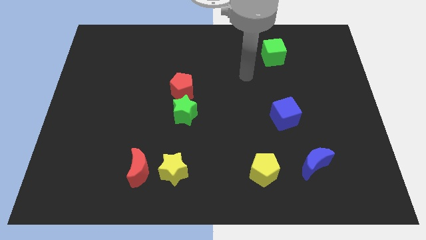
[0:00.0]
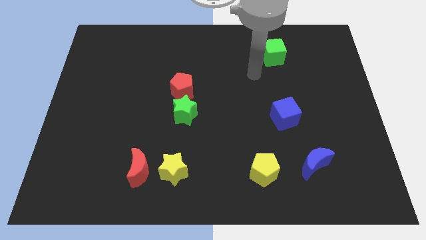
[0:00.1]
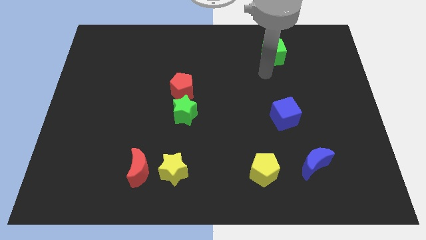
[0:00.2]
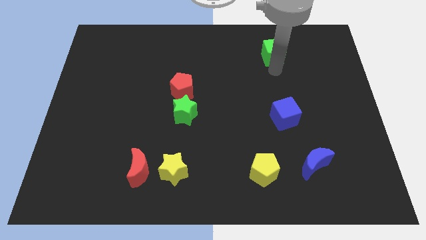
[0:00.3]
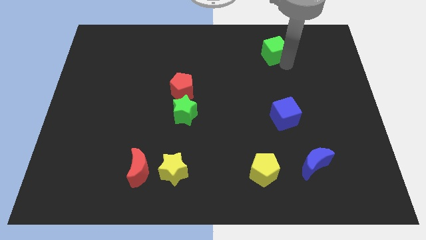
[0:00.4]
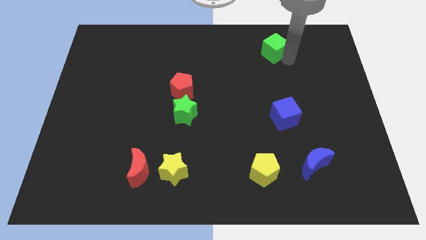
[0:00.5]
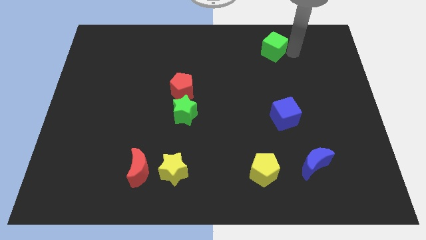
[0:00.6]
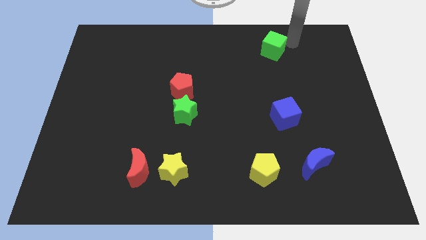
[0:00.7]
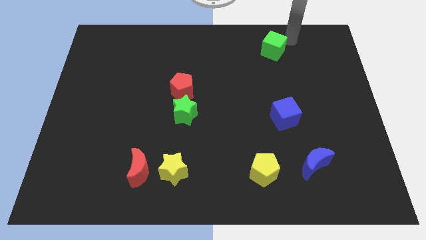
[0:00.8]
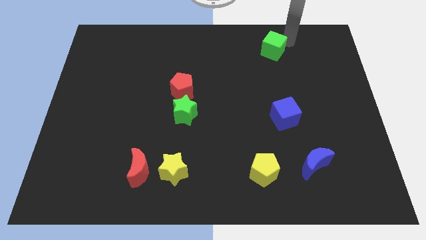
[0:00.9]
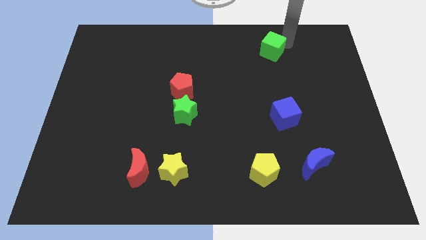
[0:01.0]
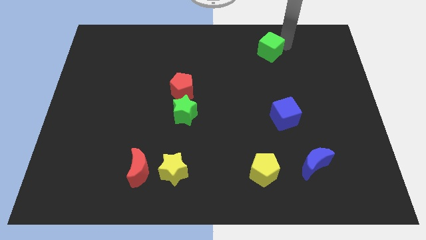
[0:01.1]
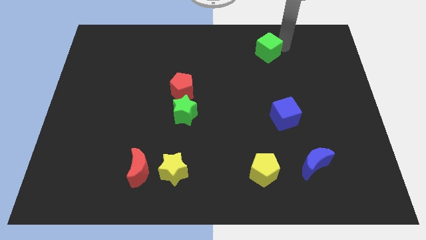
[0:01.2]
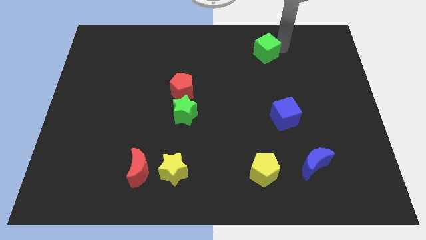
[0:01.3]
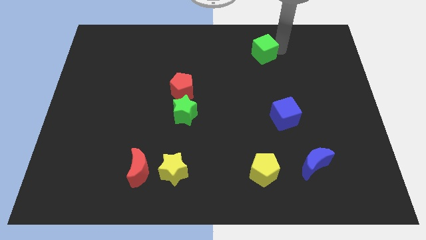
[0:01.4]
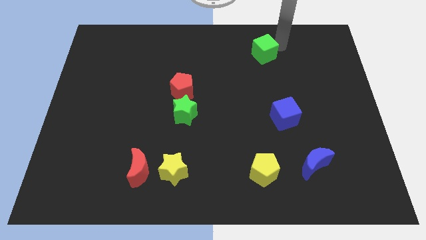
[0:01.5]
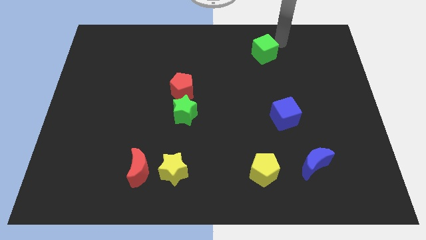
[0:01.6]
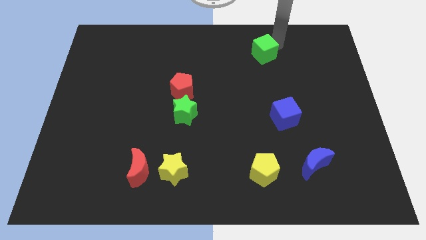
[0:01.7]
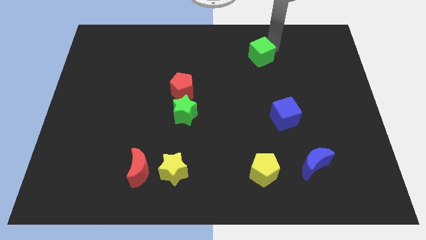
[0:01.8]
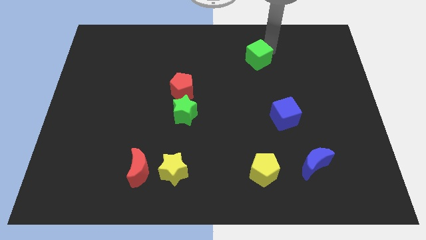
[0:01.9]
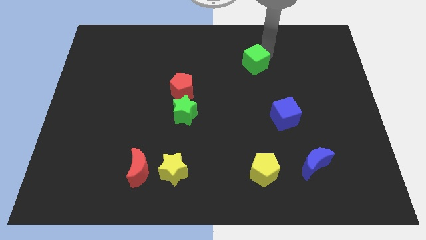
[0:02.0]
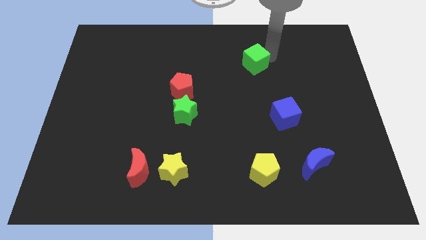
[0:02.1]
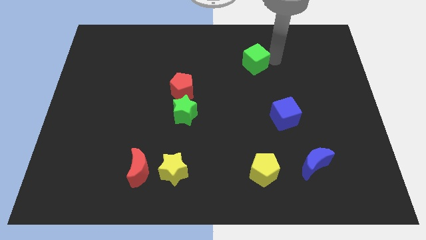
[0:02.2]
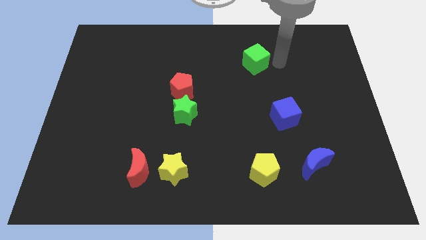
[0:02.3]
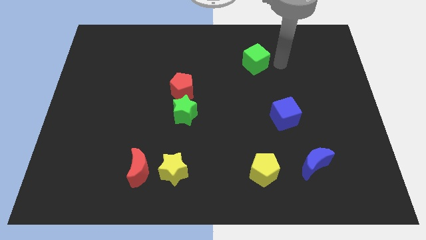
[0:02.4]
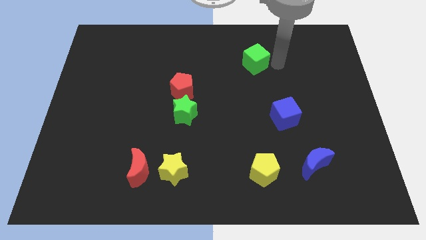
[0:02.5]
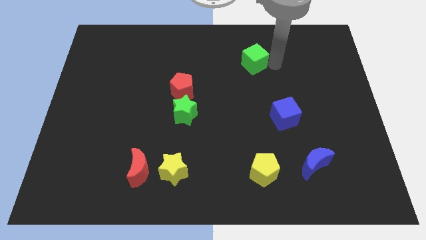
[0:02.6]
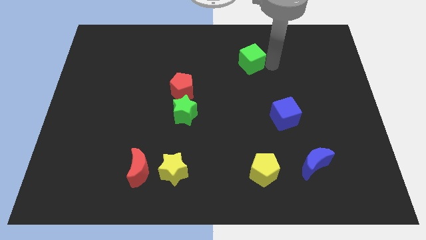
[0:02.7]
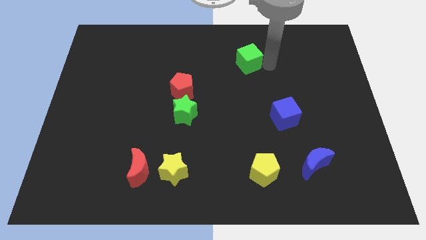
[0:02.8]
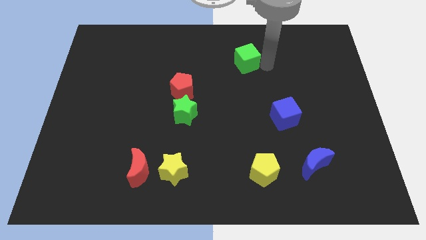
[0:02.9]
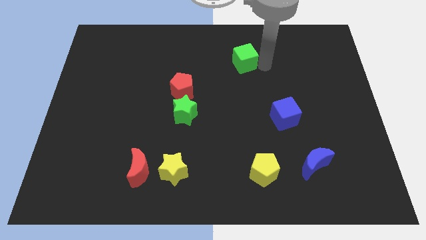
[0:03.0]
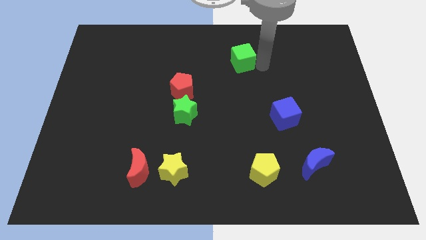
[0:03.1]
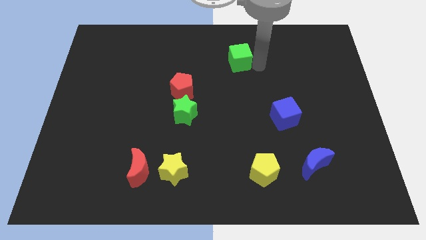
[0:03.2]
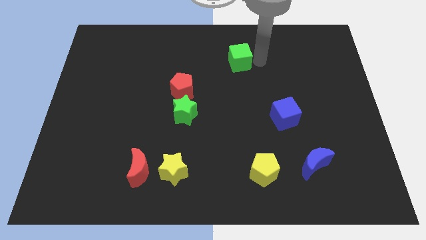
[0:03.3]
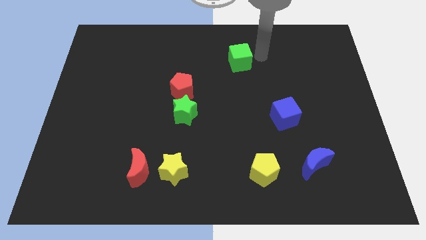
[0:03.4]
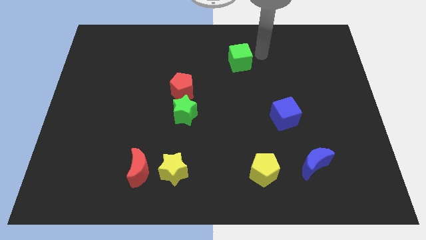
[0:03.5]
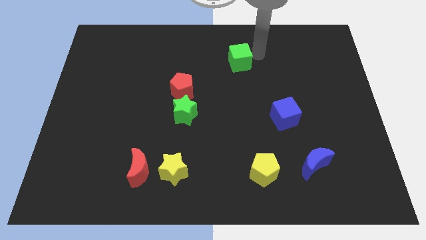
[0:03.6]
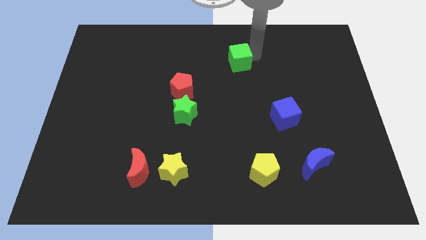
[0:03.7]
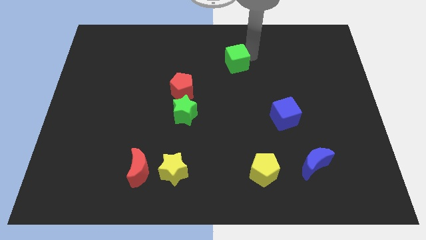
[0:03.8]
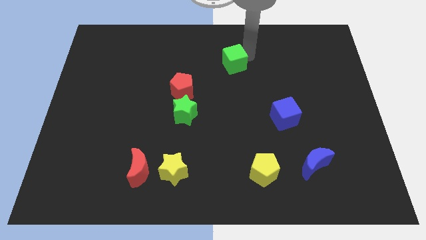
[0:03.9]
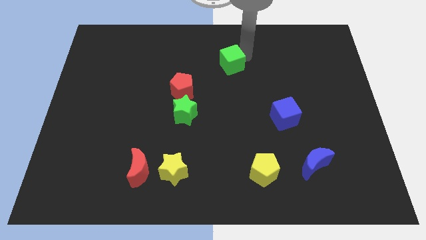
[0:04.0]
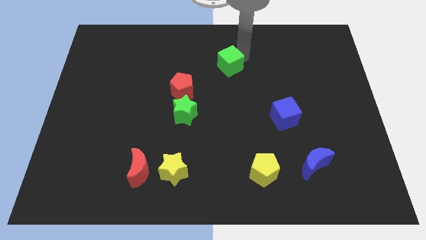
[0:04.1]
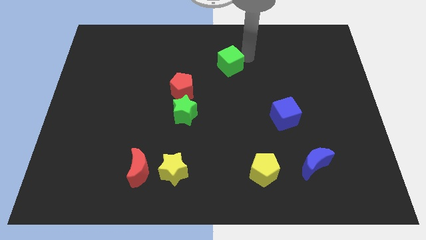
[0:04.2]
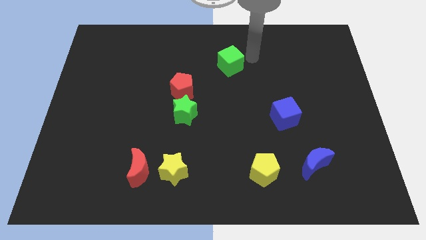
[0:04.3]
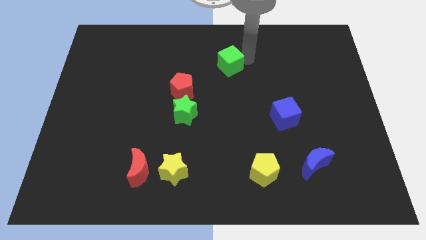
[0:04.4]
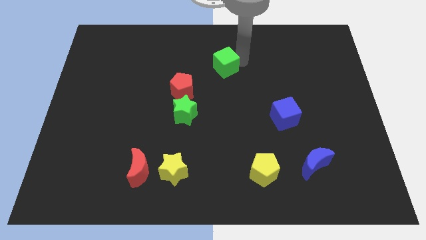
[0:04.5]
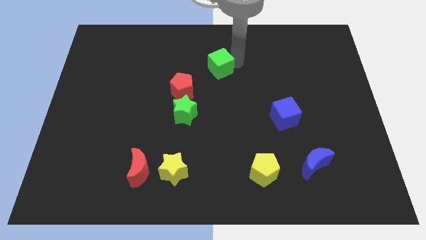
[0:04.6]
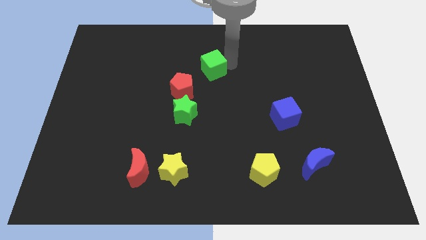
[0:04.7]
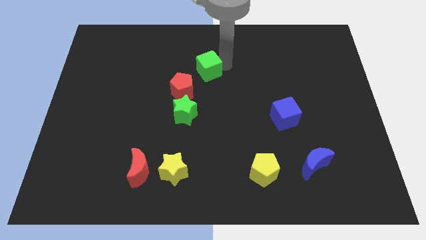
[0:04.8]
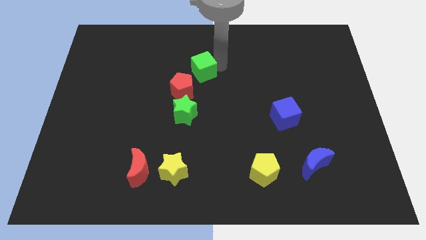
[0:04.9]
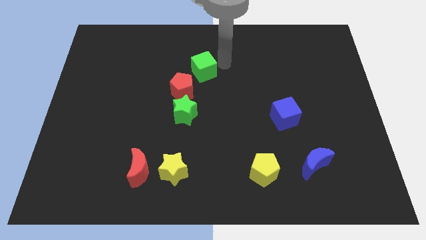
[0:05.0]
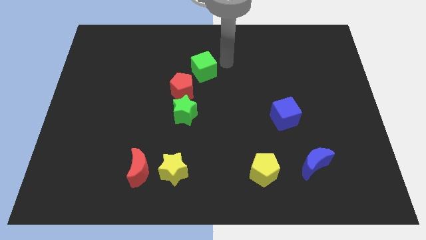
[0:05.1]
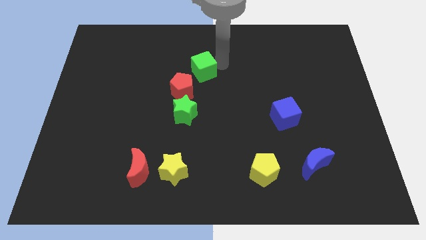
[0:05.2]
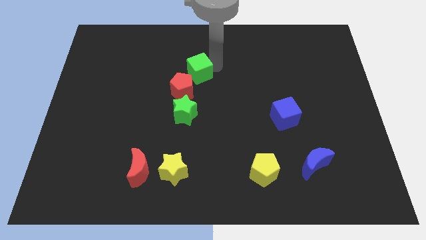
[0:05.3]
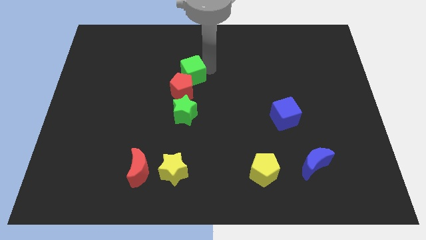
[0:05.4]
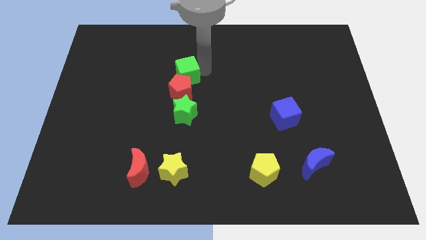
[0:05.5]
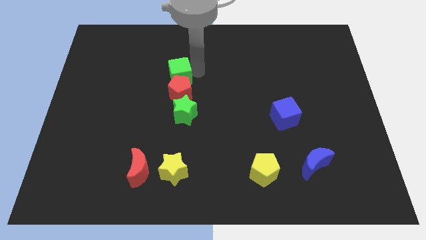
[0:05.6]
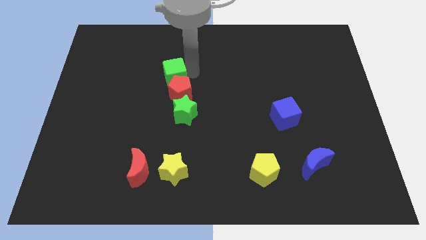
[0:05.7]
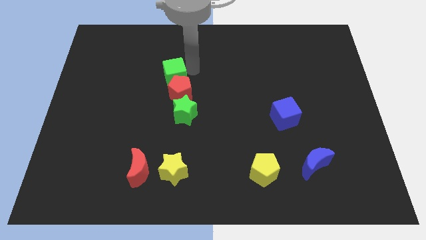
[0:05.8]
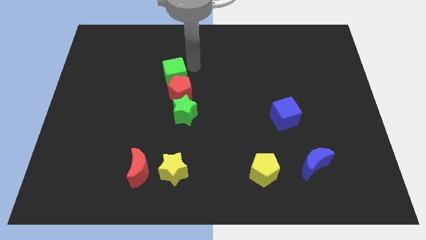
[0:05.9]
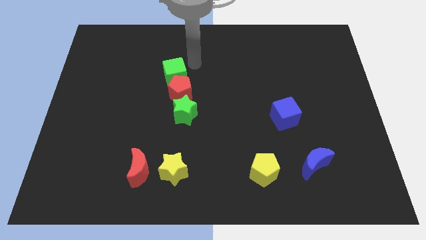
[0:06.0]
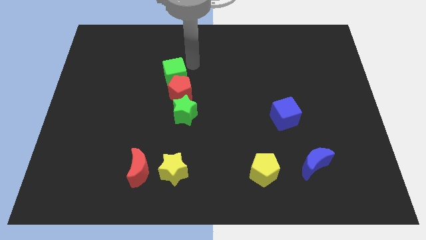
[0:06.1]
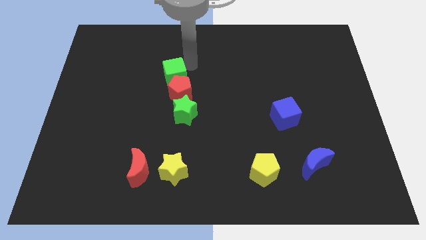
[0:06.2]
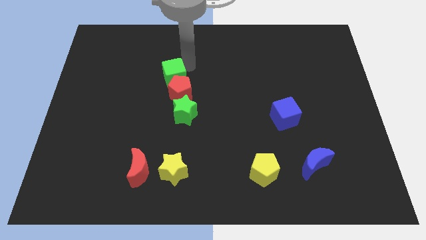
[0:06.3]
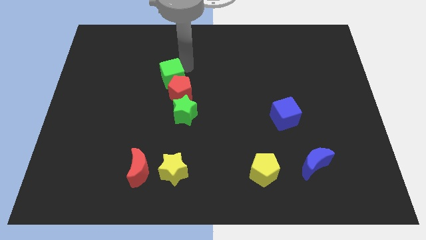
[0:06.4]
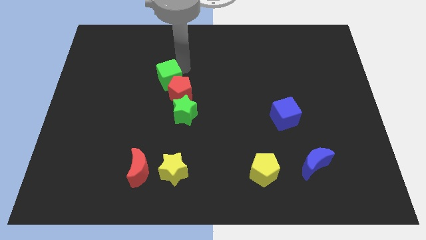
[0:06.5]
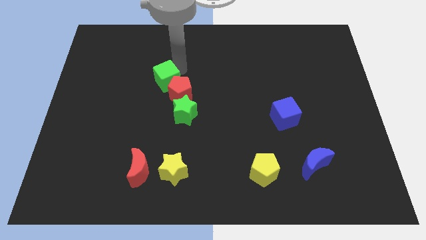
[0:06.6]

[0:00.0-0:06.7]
move the green cube to the left of the red pentagon

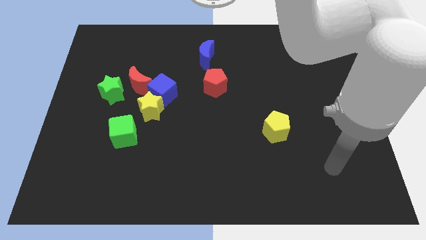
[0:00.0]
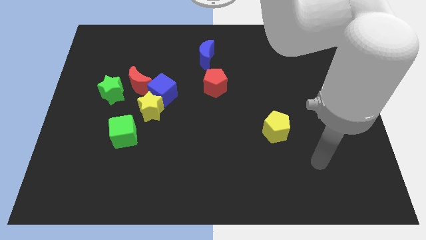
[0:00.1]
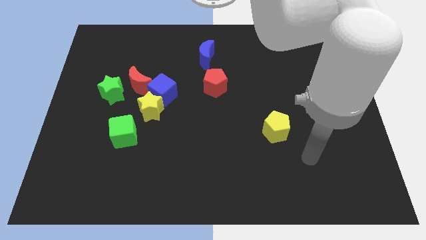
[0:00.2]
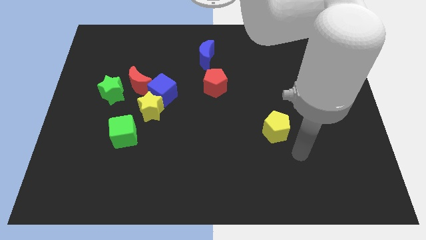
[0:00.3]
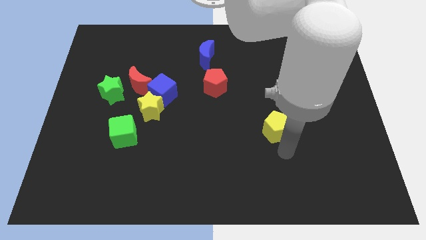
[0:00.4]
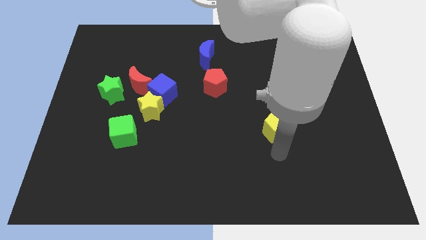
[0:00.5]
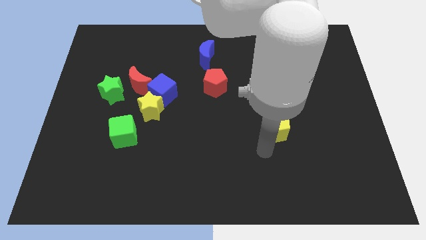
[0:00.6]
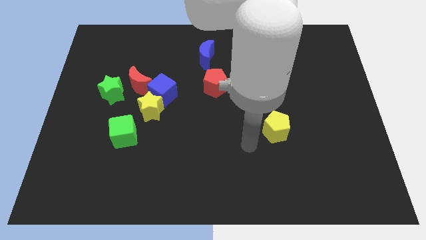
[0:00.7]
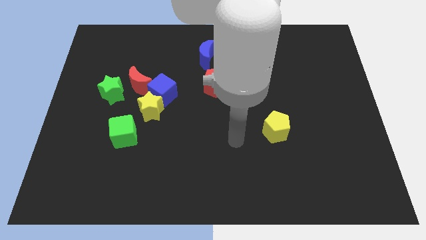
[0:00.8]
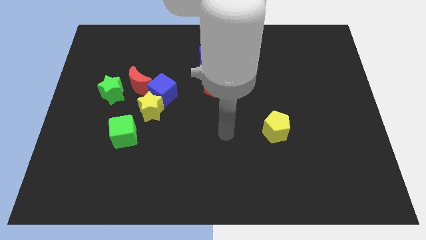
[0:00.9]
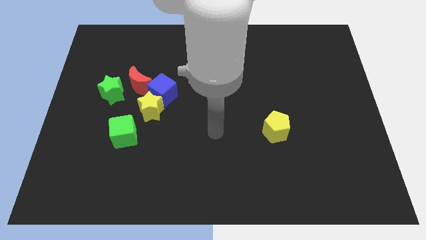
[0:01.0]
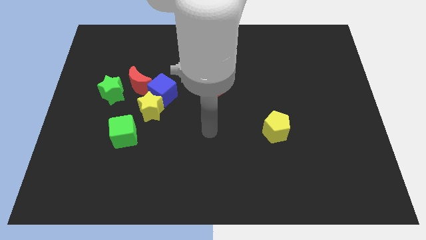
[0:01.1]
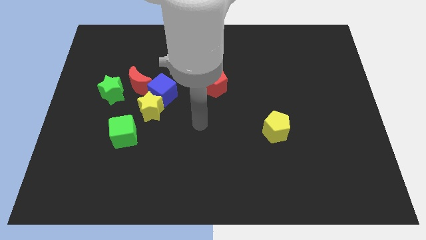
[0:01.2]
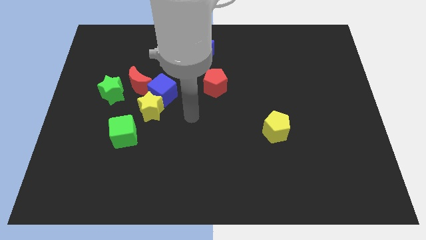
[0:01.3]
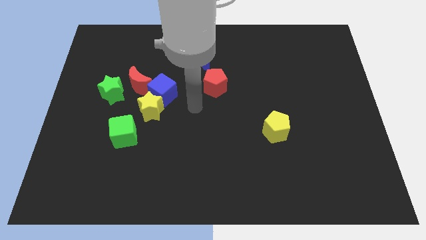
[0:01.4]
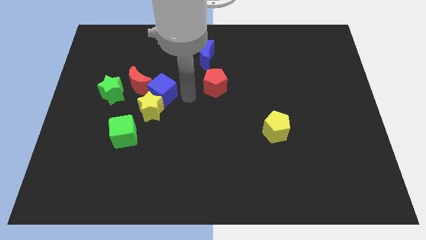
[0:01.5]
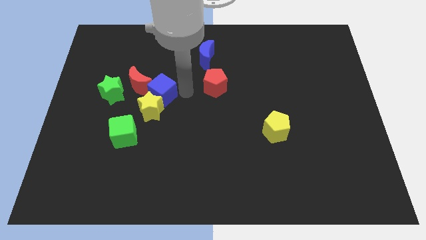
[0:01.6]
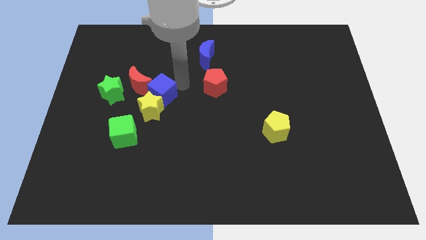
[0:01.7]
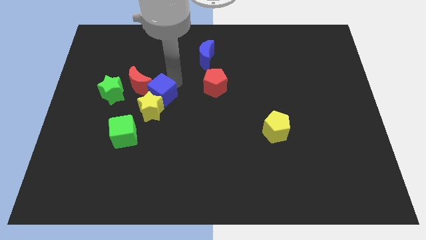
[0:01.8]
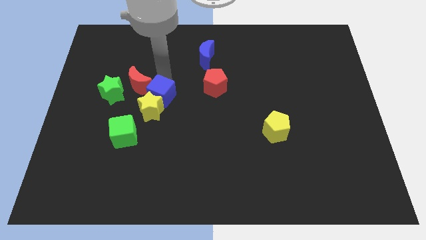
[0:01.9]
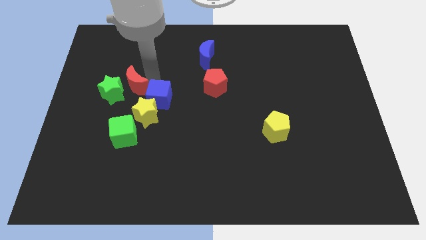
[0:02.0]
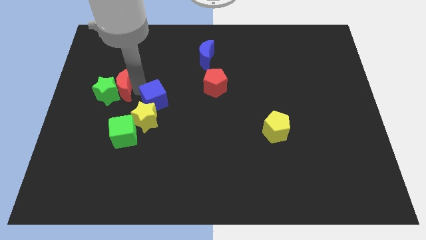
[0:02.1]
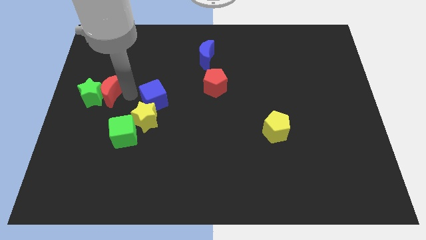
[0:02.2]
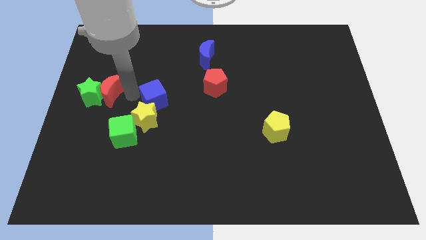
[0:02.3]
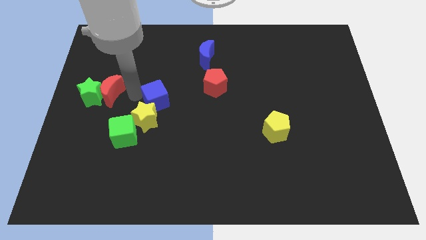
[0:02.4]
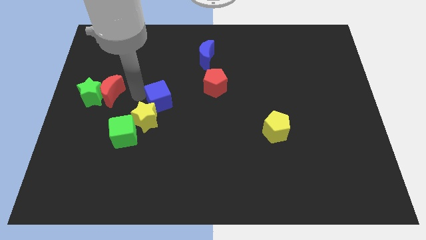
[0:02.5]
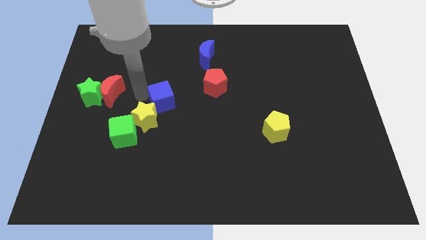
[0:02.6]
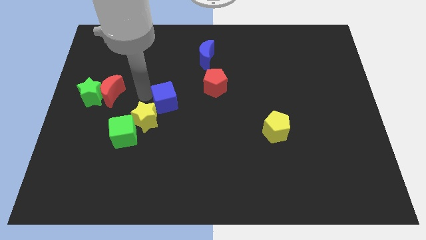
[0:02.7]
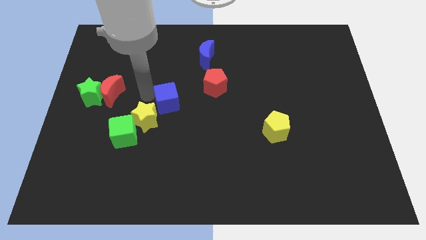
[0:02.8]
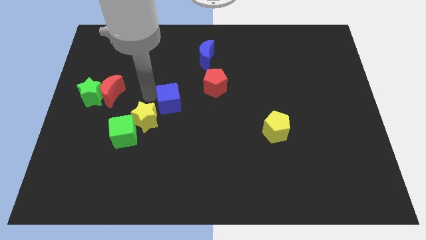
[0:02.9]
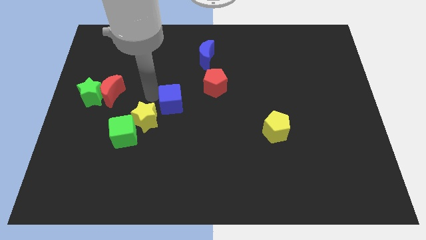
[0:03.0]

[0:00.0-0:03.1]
push the blue cube to the right side of the yellow star
